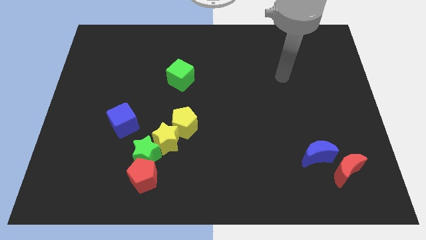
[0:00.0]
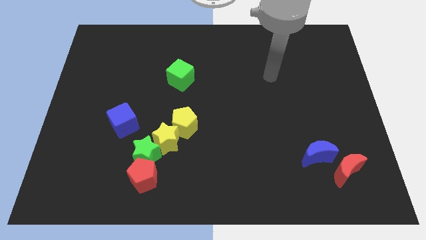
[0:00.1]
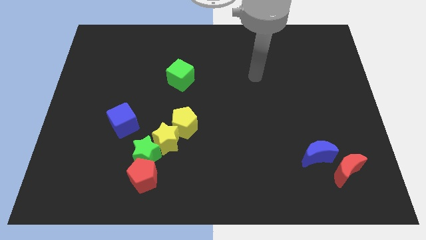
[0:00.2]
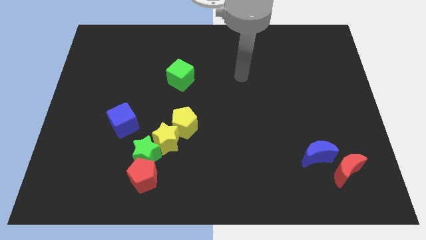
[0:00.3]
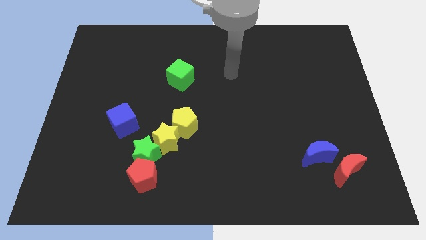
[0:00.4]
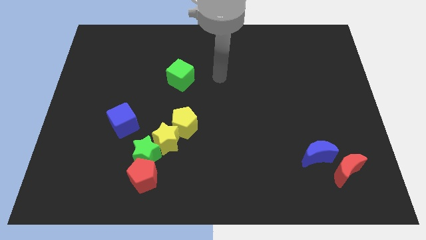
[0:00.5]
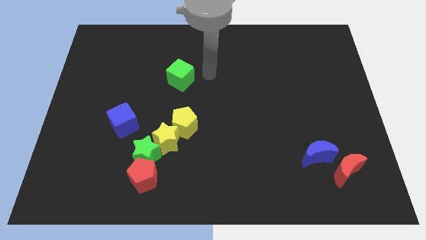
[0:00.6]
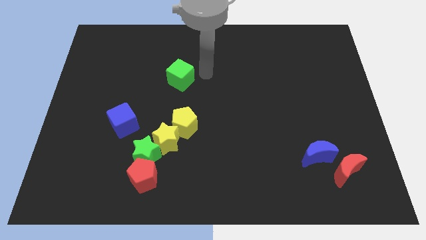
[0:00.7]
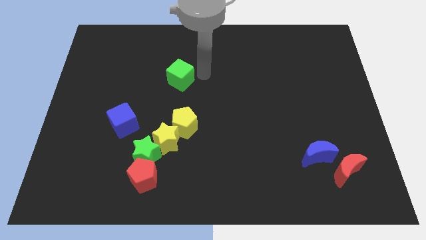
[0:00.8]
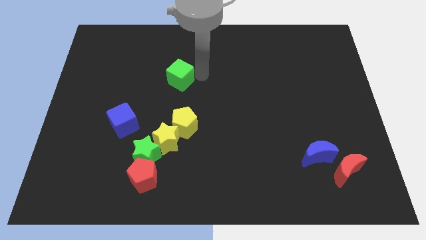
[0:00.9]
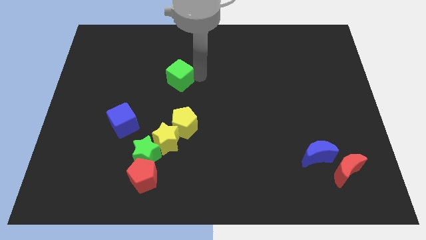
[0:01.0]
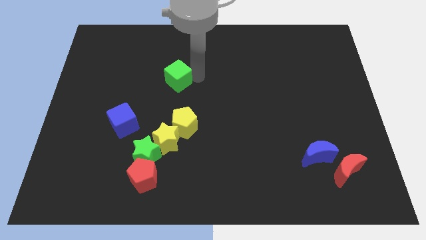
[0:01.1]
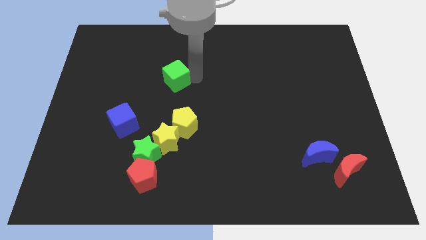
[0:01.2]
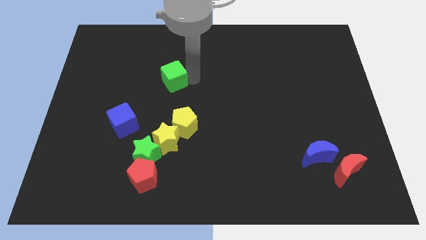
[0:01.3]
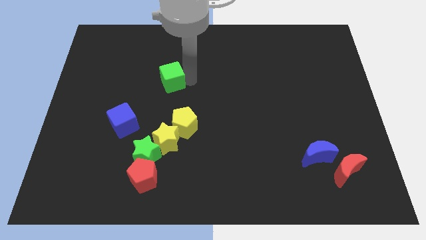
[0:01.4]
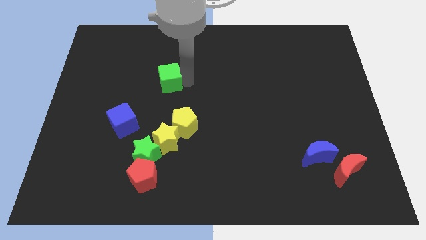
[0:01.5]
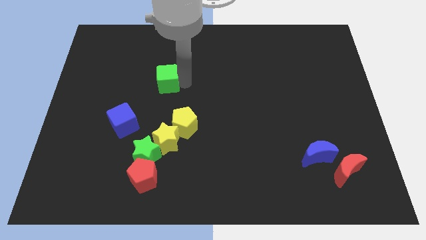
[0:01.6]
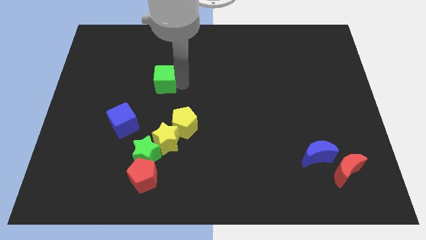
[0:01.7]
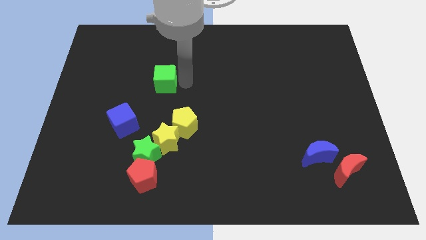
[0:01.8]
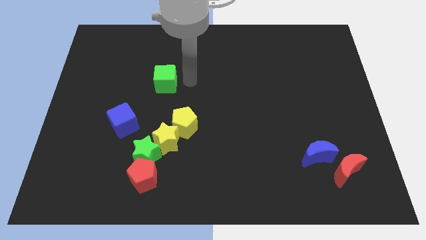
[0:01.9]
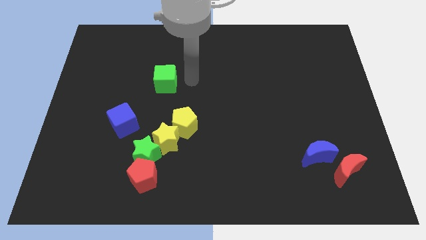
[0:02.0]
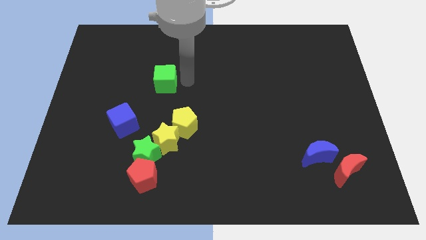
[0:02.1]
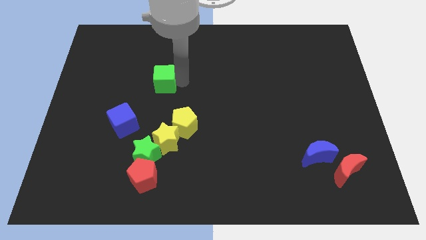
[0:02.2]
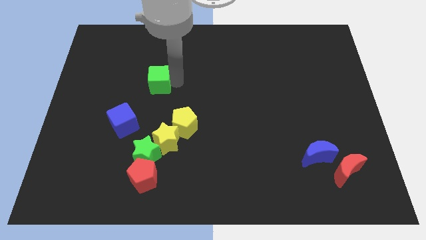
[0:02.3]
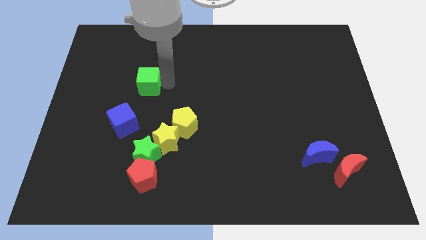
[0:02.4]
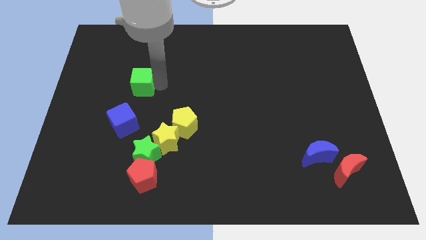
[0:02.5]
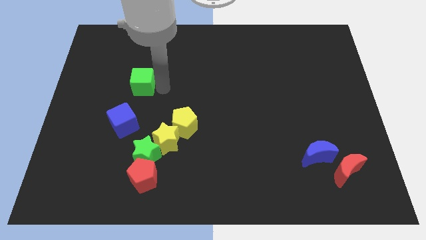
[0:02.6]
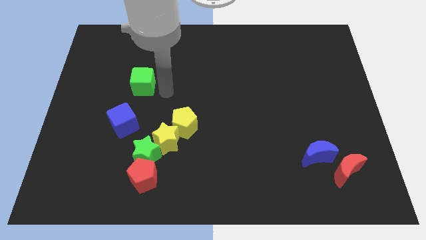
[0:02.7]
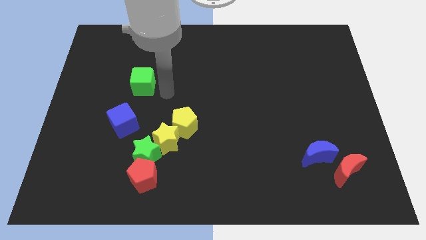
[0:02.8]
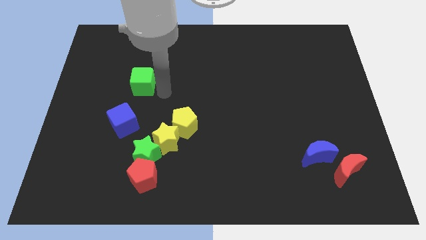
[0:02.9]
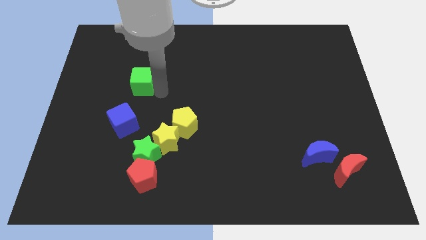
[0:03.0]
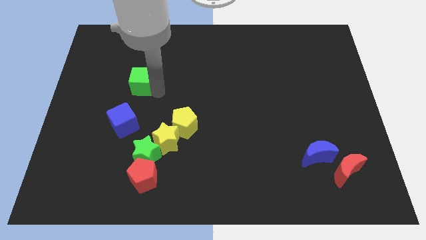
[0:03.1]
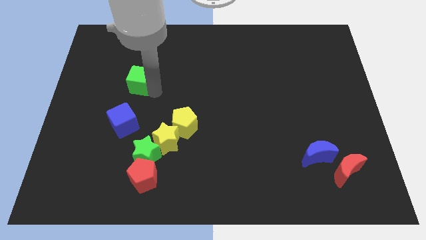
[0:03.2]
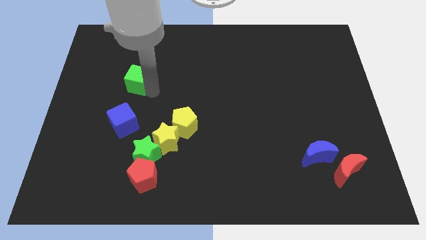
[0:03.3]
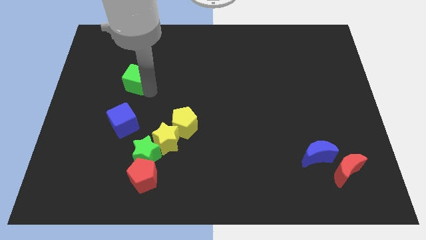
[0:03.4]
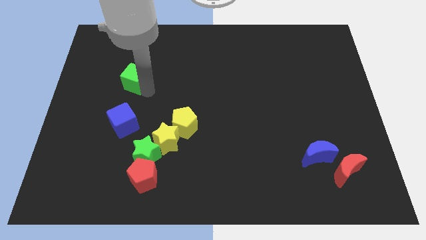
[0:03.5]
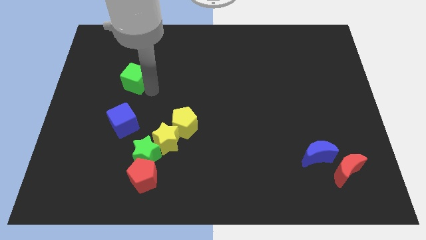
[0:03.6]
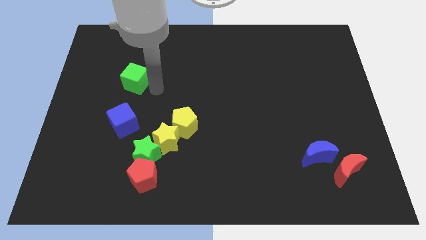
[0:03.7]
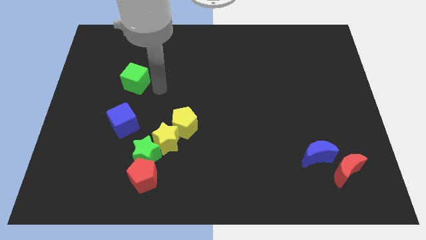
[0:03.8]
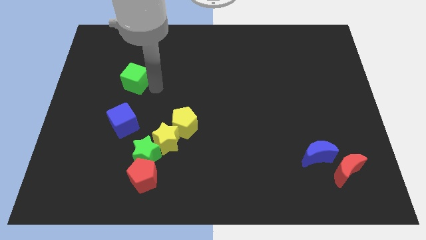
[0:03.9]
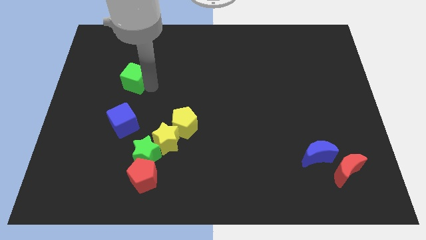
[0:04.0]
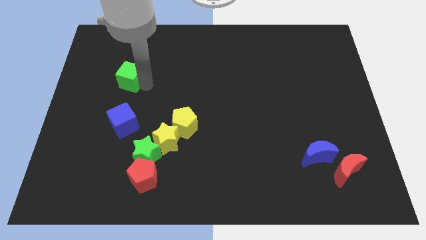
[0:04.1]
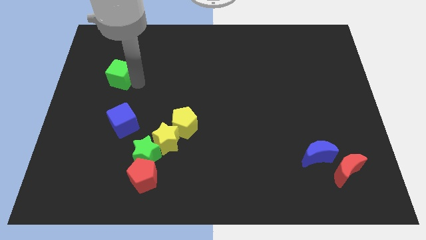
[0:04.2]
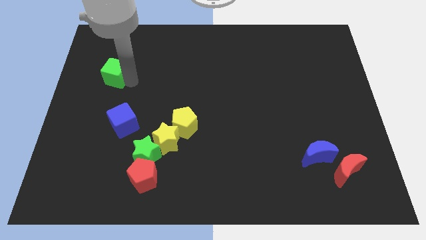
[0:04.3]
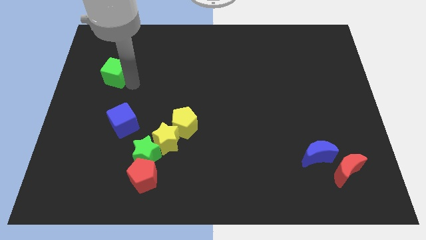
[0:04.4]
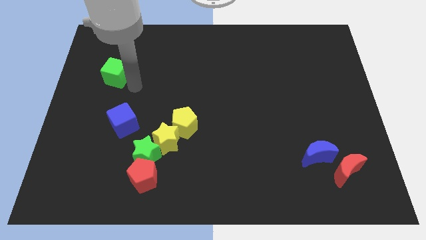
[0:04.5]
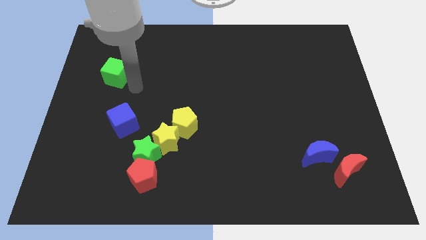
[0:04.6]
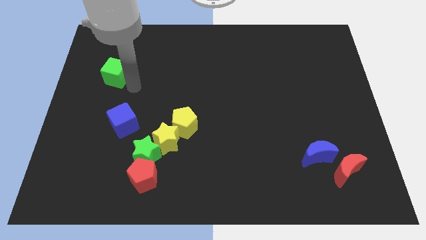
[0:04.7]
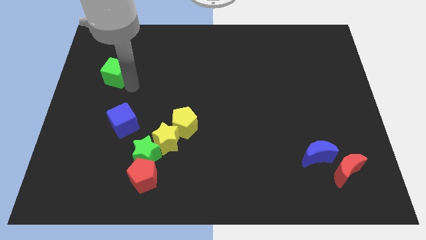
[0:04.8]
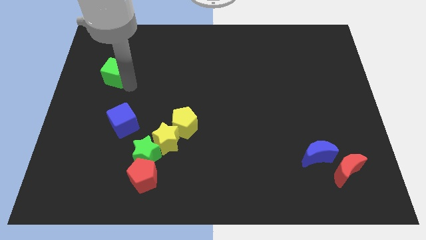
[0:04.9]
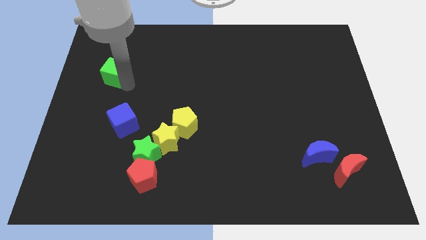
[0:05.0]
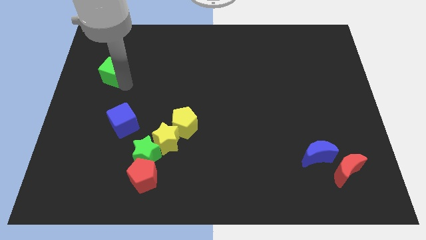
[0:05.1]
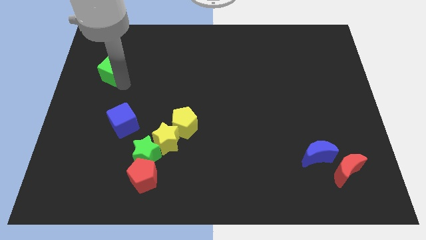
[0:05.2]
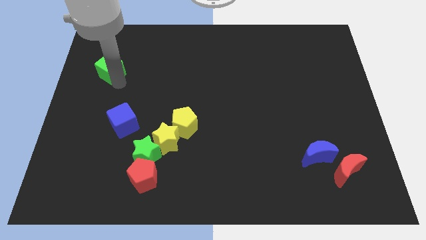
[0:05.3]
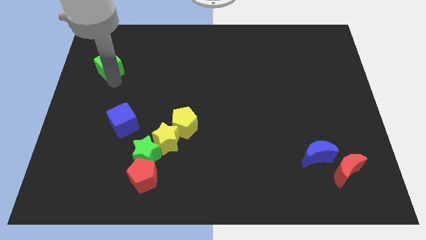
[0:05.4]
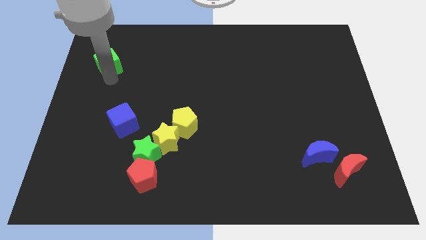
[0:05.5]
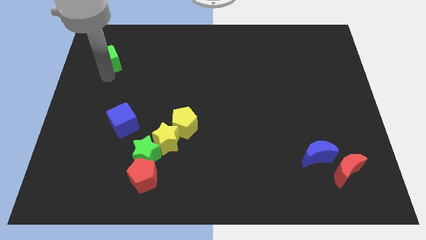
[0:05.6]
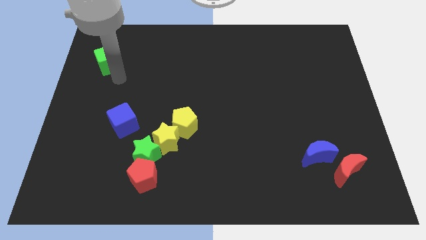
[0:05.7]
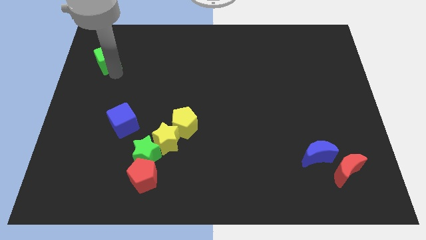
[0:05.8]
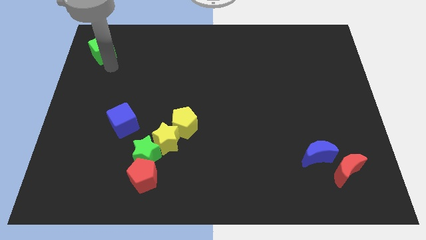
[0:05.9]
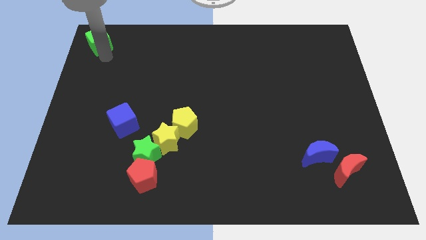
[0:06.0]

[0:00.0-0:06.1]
slide the green cube to the top left

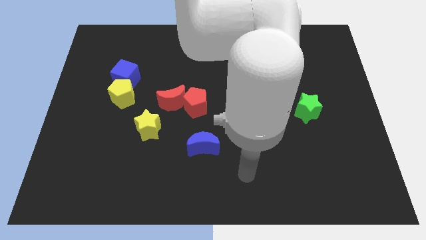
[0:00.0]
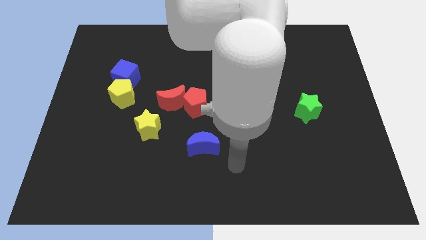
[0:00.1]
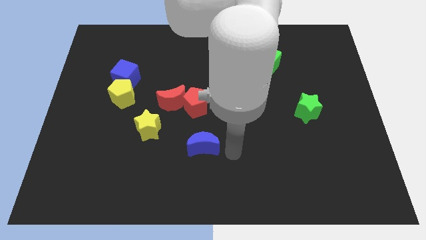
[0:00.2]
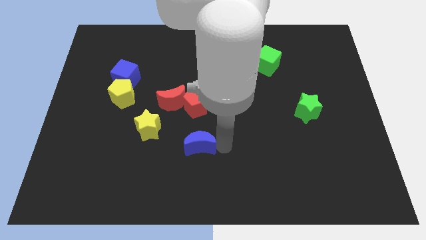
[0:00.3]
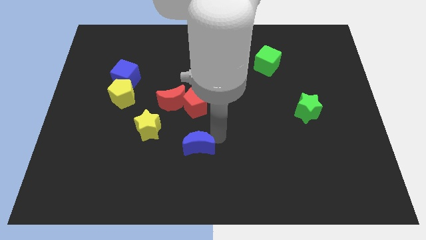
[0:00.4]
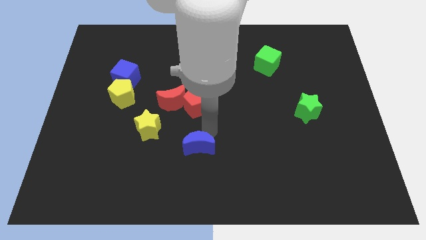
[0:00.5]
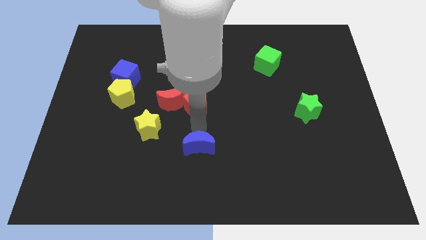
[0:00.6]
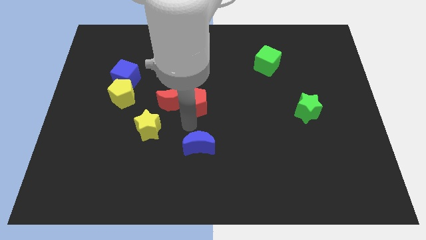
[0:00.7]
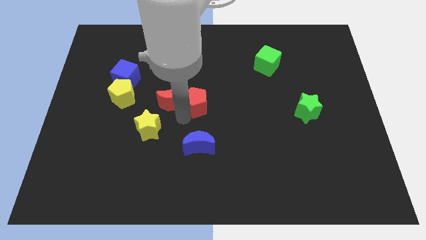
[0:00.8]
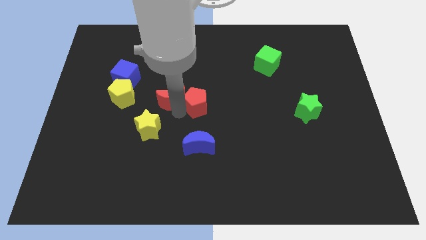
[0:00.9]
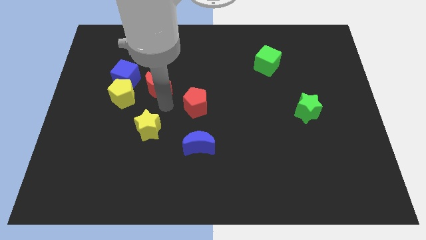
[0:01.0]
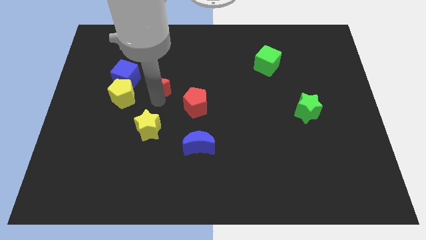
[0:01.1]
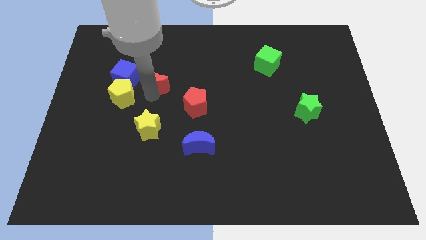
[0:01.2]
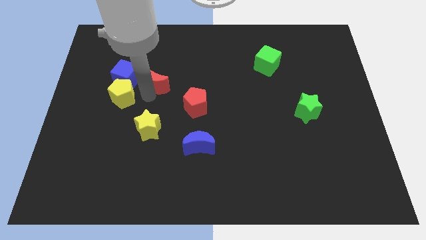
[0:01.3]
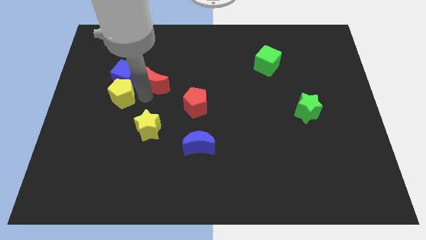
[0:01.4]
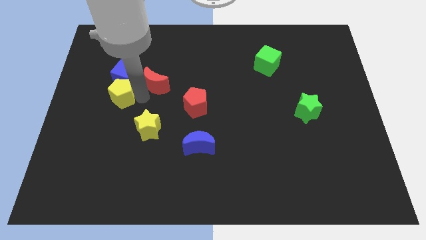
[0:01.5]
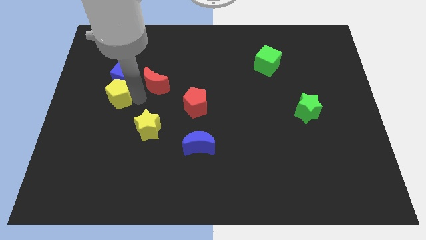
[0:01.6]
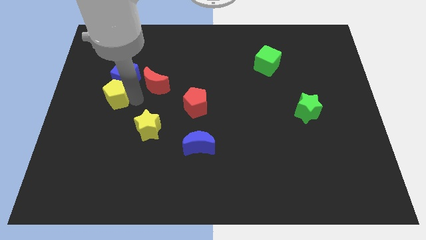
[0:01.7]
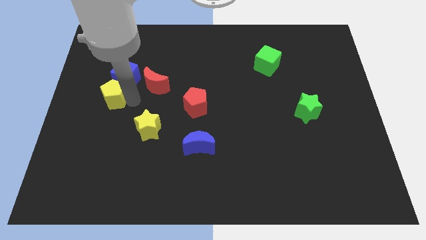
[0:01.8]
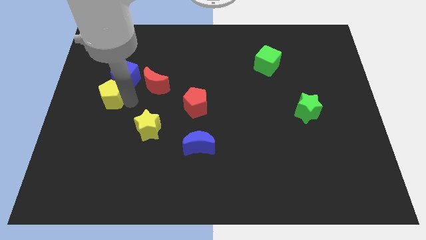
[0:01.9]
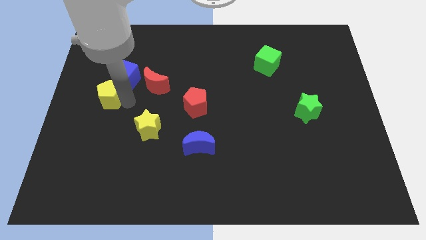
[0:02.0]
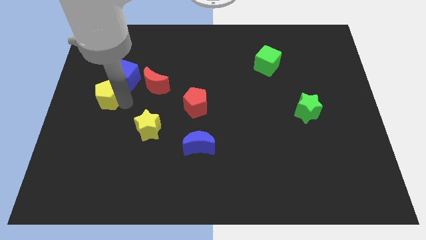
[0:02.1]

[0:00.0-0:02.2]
slide the yellow pentagon to the left side
